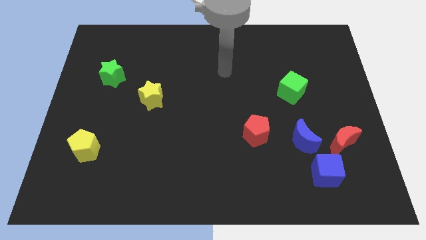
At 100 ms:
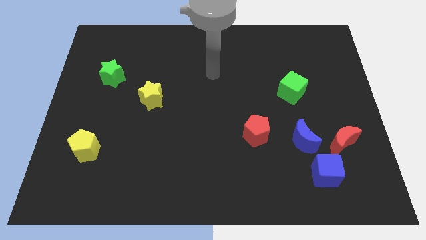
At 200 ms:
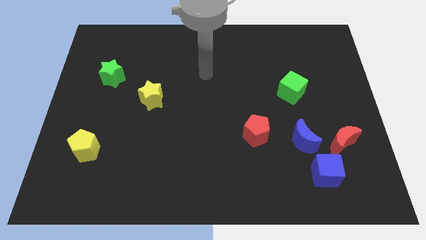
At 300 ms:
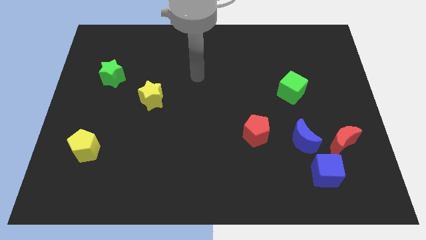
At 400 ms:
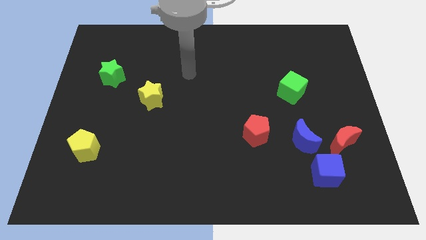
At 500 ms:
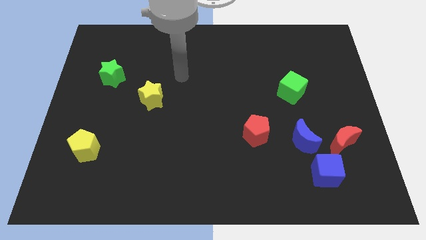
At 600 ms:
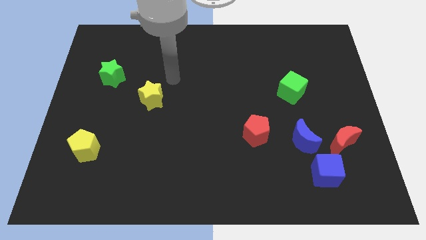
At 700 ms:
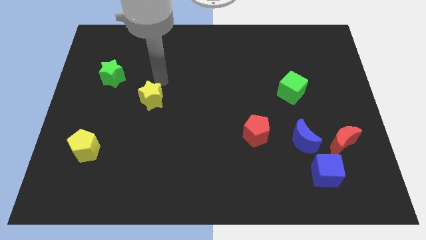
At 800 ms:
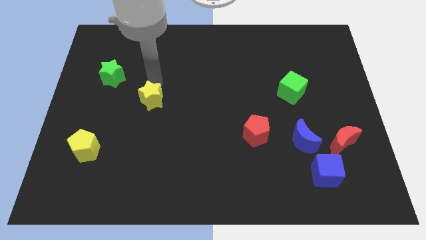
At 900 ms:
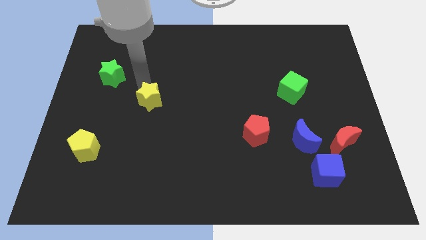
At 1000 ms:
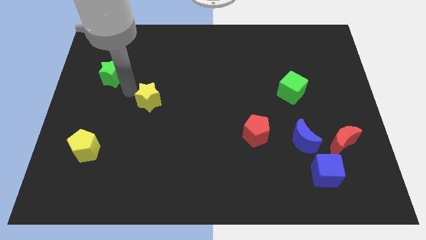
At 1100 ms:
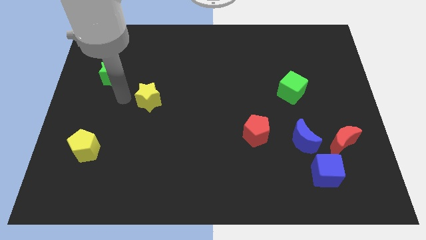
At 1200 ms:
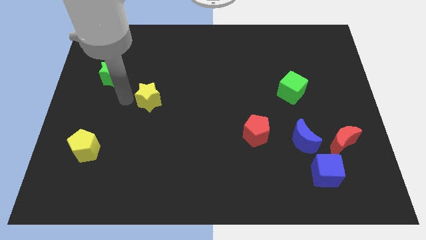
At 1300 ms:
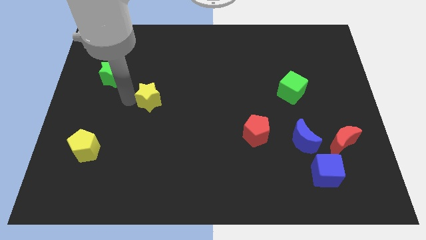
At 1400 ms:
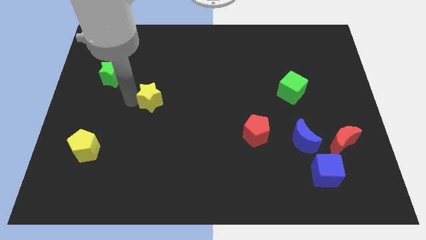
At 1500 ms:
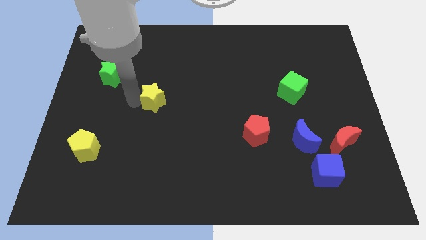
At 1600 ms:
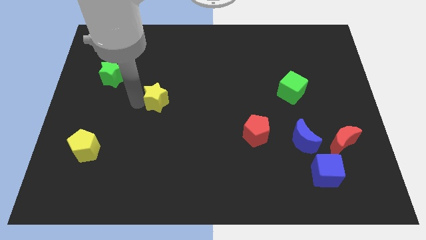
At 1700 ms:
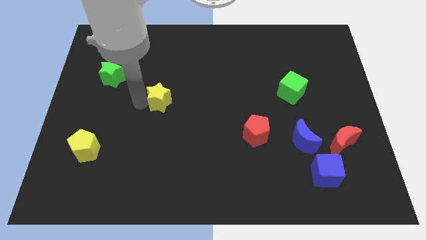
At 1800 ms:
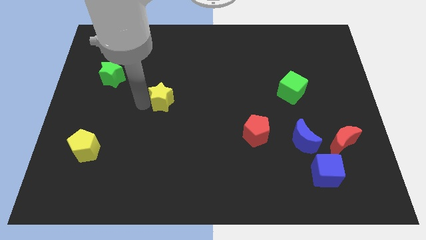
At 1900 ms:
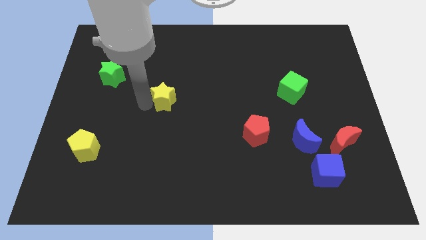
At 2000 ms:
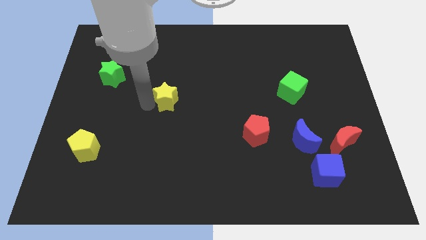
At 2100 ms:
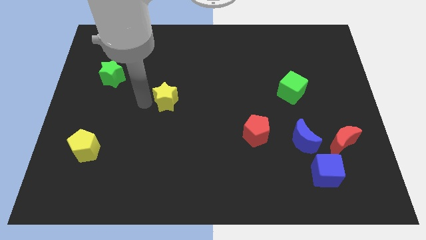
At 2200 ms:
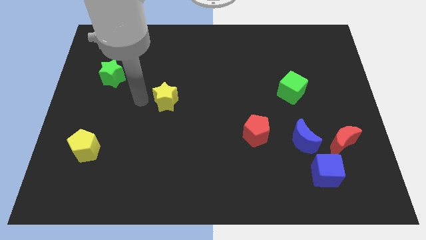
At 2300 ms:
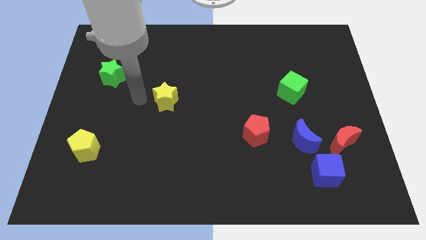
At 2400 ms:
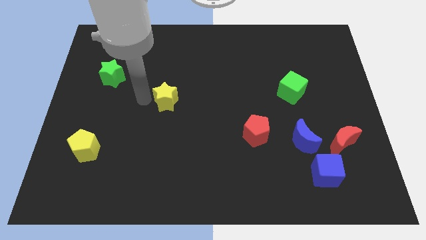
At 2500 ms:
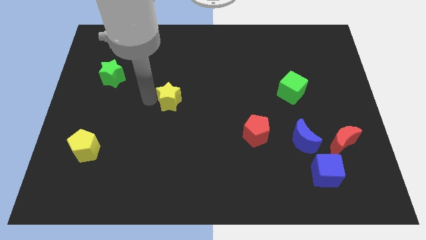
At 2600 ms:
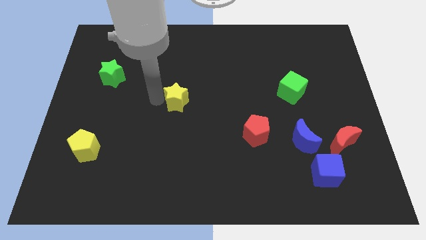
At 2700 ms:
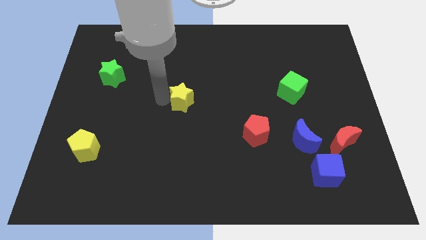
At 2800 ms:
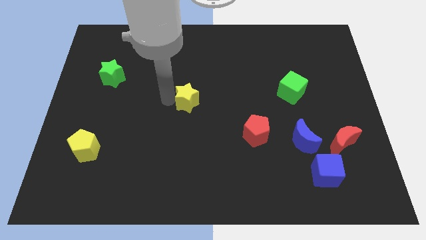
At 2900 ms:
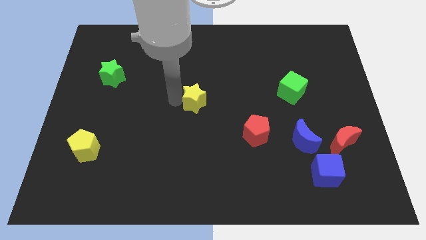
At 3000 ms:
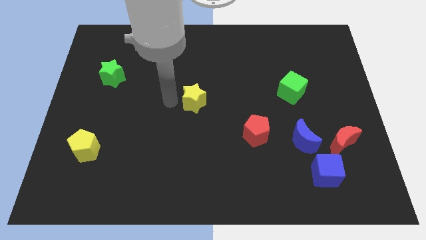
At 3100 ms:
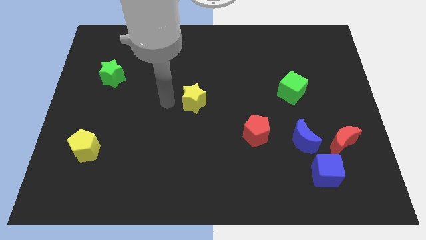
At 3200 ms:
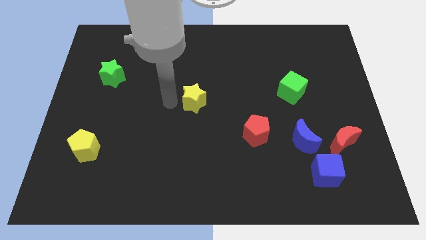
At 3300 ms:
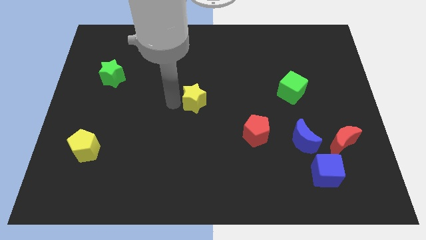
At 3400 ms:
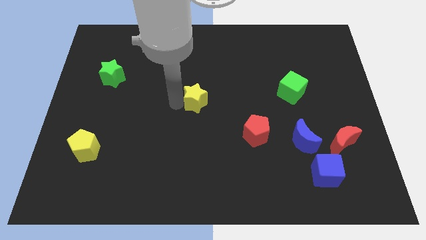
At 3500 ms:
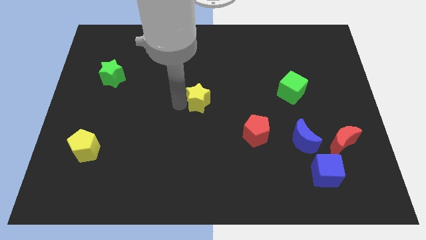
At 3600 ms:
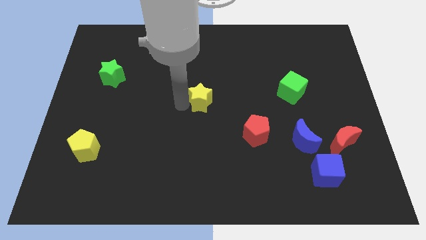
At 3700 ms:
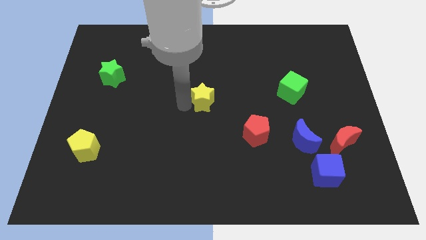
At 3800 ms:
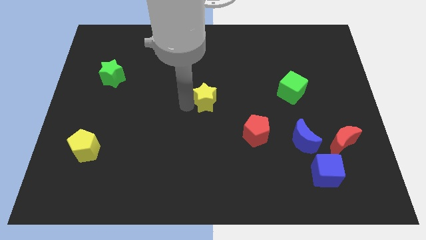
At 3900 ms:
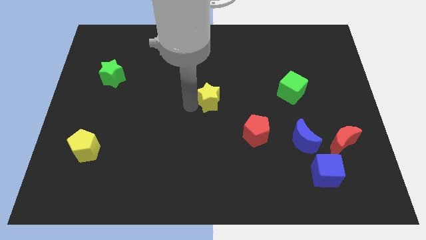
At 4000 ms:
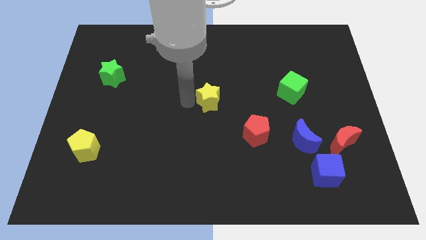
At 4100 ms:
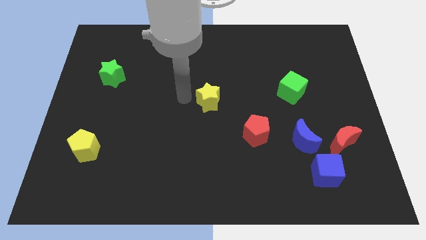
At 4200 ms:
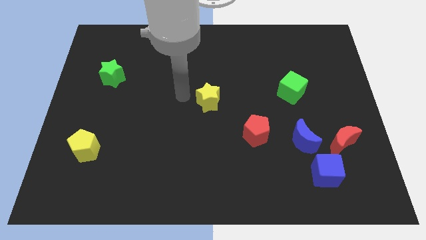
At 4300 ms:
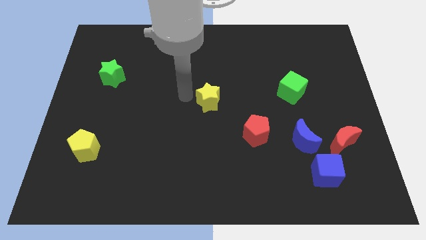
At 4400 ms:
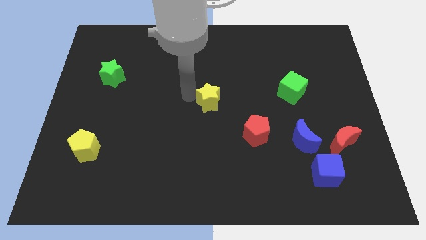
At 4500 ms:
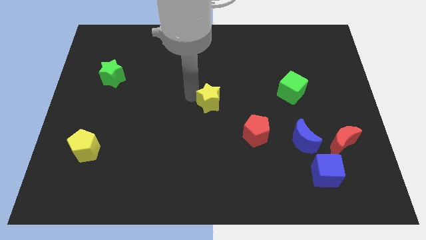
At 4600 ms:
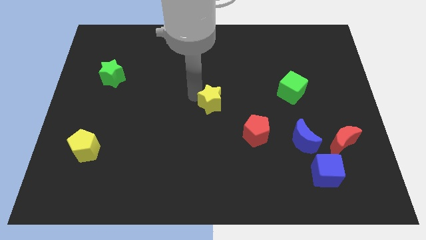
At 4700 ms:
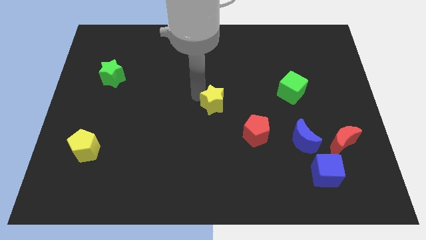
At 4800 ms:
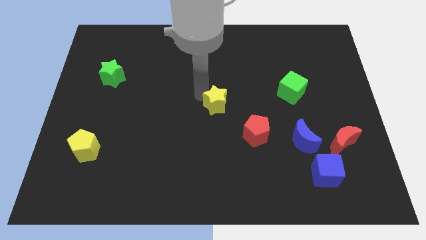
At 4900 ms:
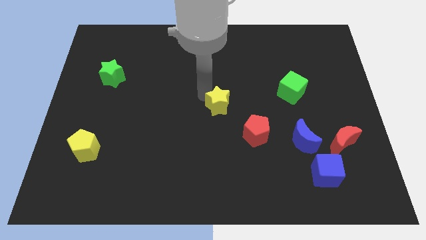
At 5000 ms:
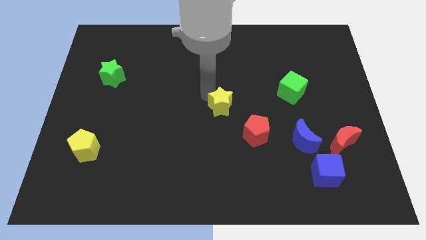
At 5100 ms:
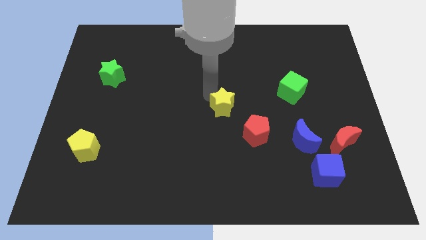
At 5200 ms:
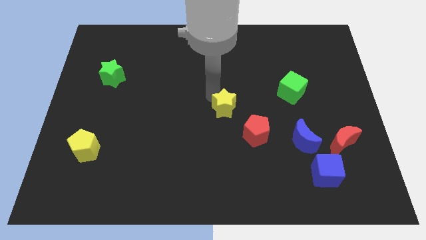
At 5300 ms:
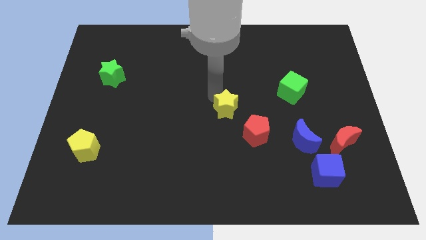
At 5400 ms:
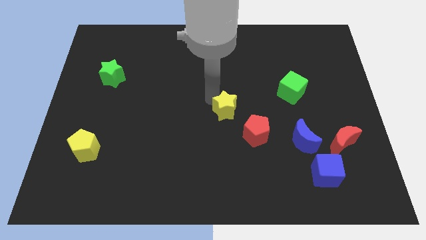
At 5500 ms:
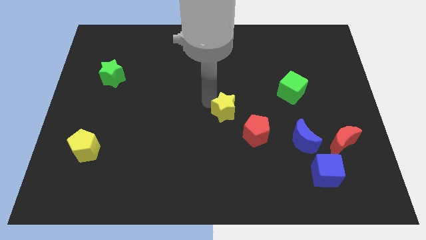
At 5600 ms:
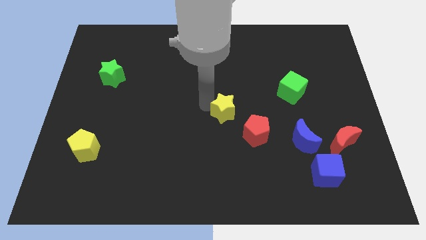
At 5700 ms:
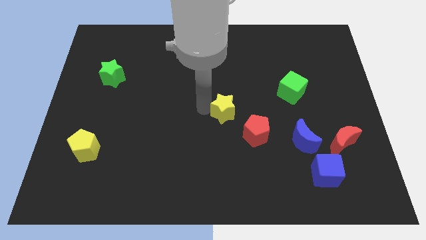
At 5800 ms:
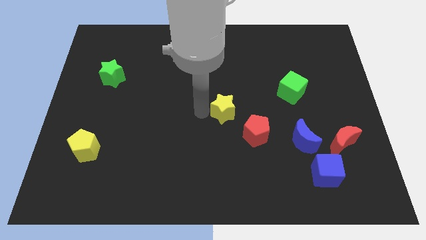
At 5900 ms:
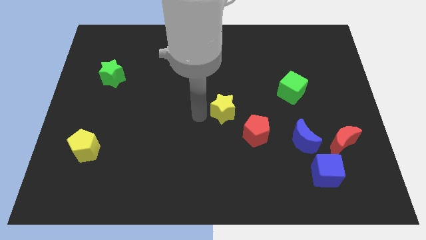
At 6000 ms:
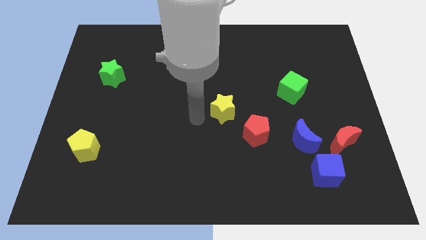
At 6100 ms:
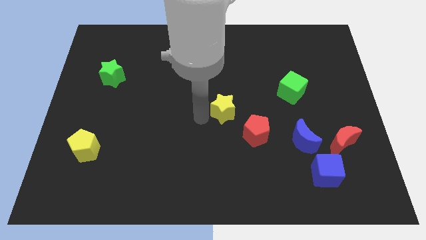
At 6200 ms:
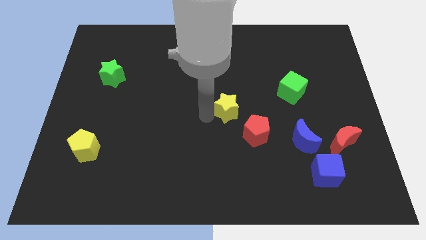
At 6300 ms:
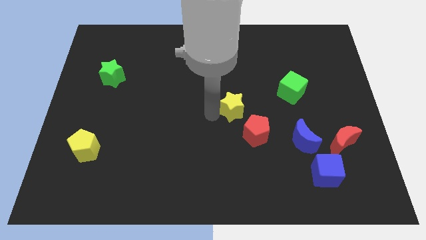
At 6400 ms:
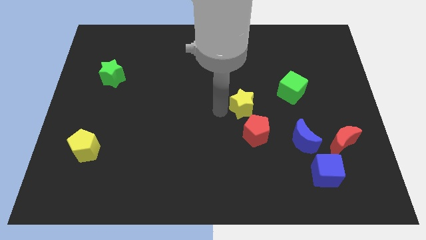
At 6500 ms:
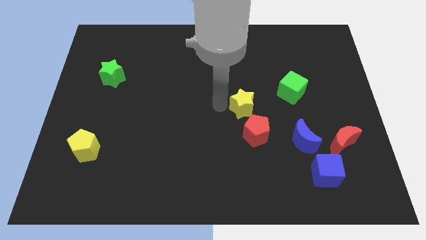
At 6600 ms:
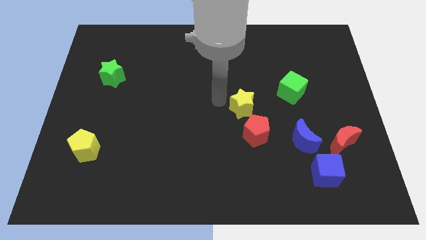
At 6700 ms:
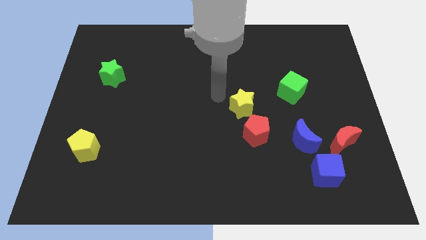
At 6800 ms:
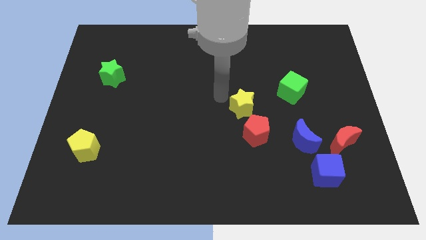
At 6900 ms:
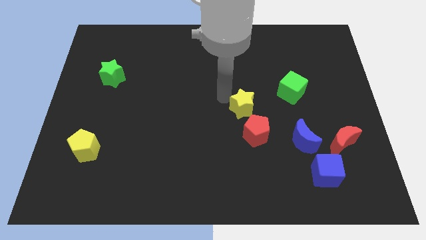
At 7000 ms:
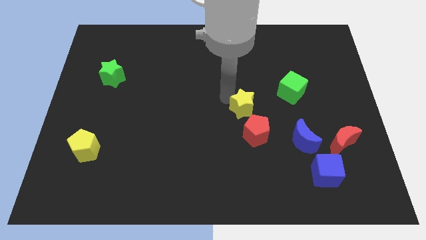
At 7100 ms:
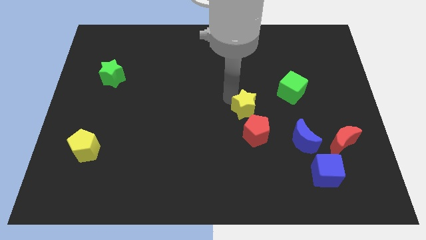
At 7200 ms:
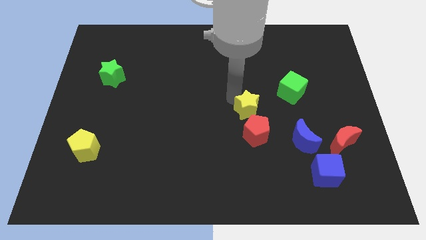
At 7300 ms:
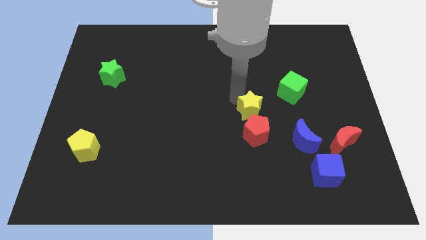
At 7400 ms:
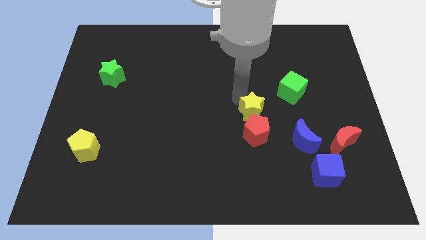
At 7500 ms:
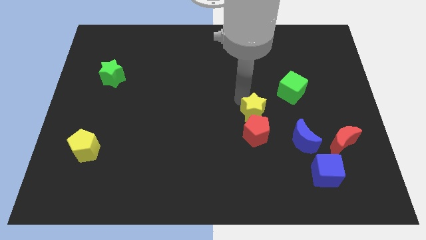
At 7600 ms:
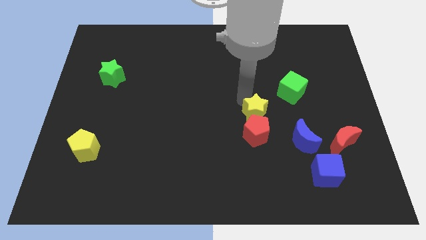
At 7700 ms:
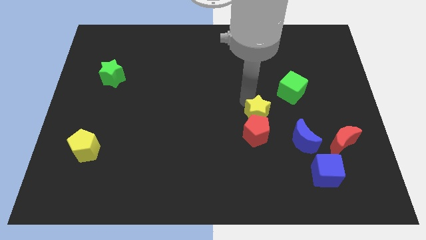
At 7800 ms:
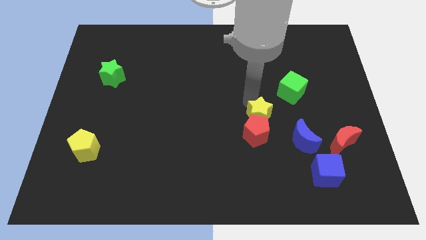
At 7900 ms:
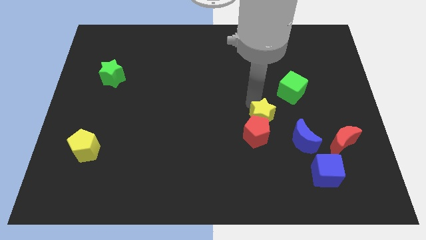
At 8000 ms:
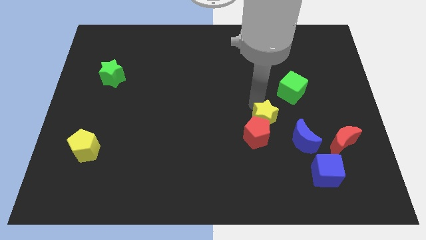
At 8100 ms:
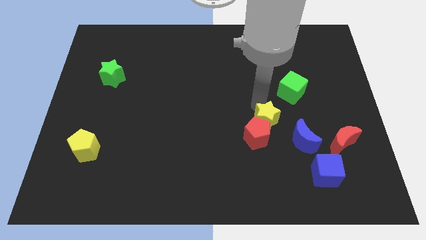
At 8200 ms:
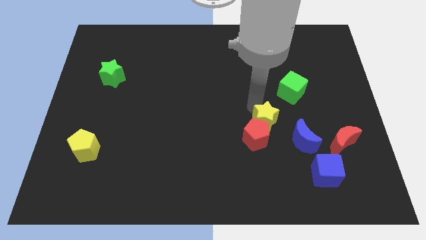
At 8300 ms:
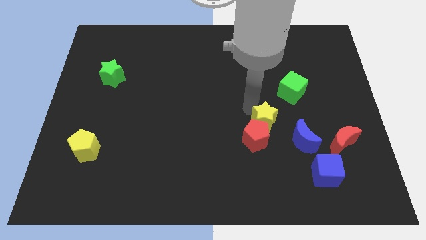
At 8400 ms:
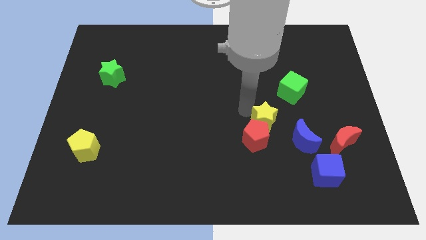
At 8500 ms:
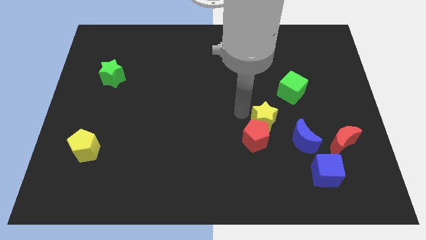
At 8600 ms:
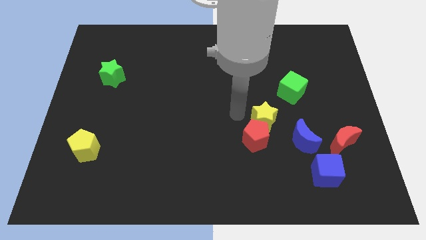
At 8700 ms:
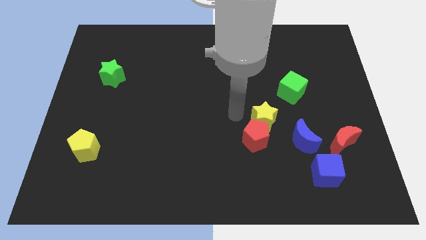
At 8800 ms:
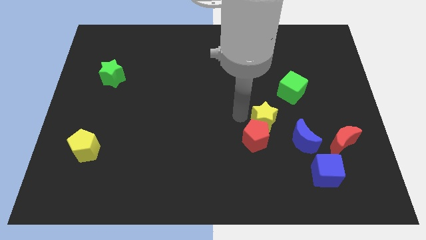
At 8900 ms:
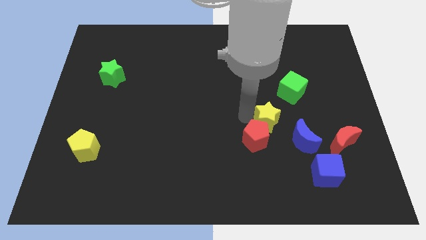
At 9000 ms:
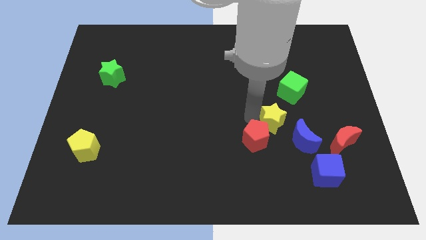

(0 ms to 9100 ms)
put the yellow star right of the red pentagon
